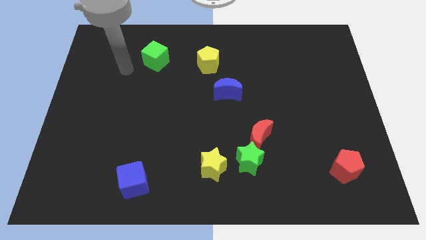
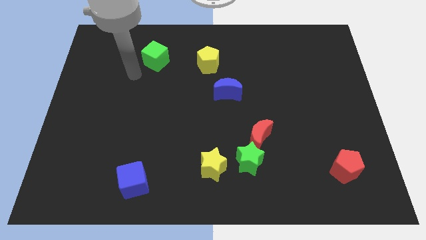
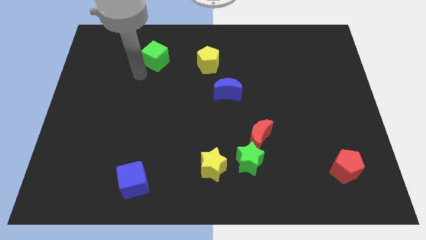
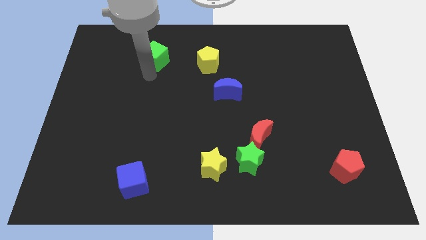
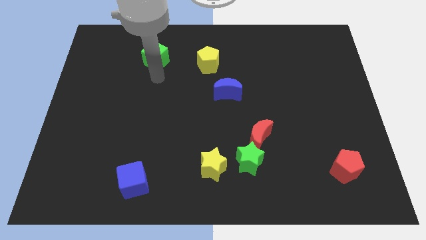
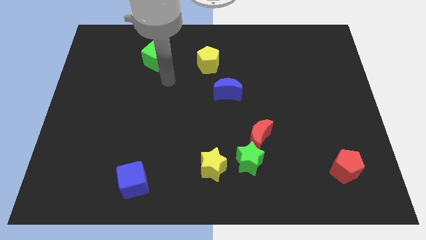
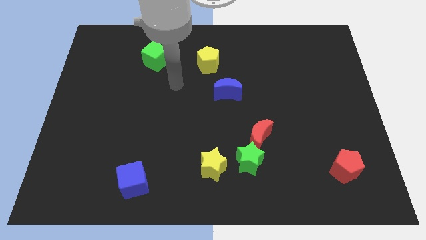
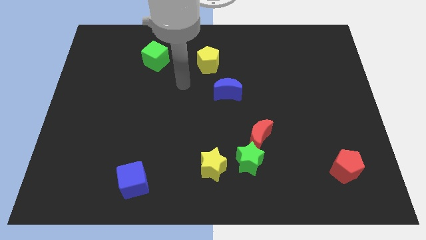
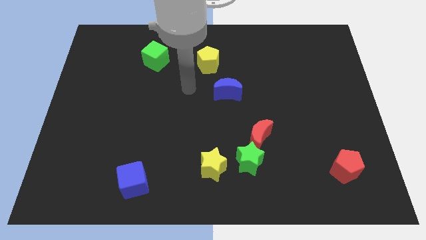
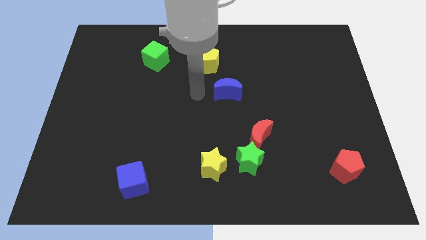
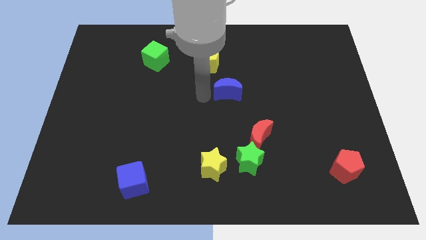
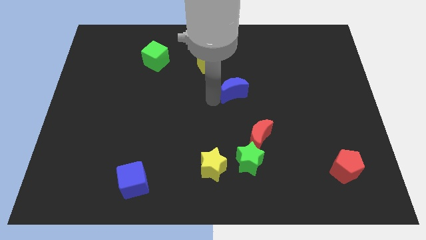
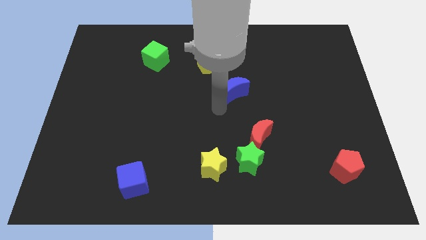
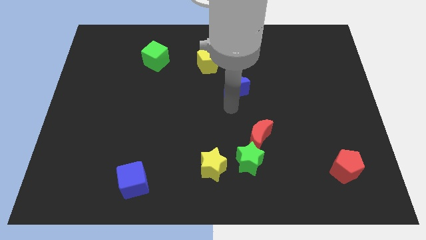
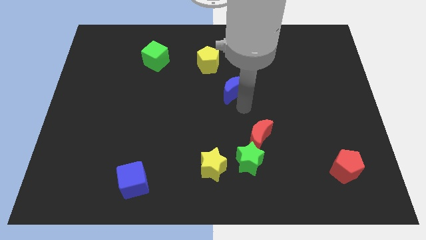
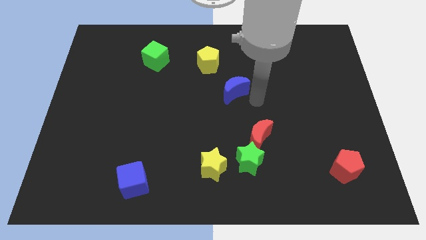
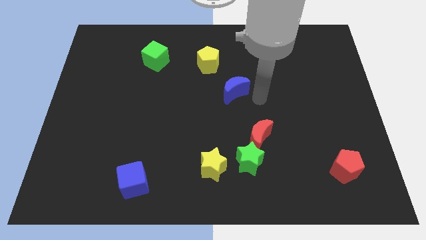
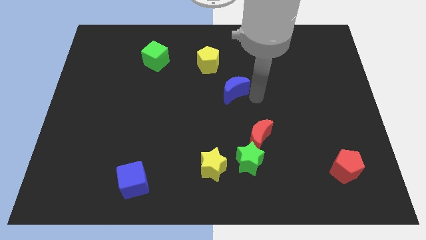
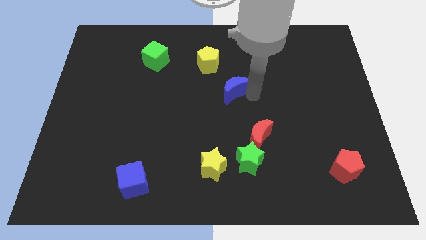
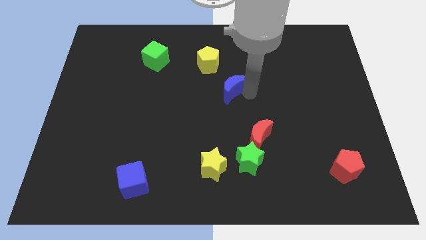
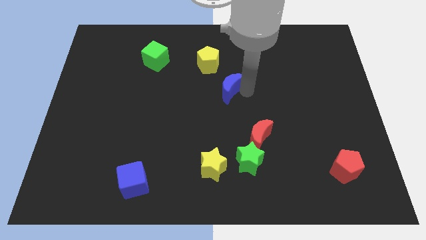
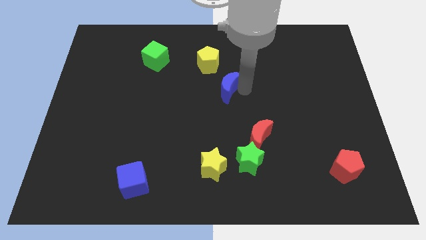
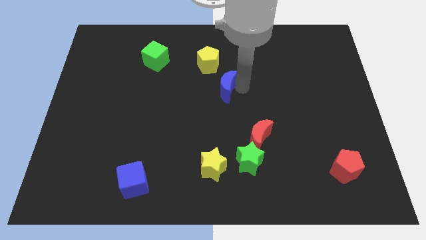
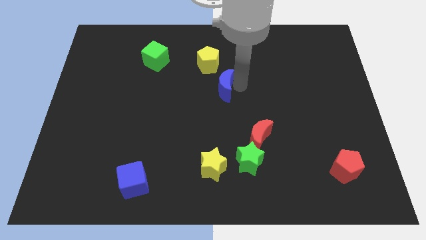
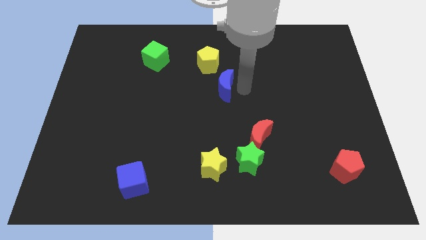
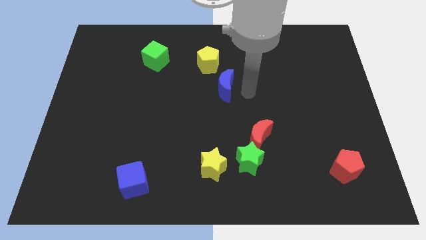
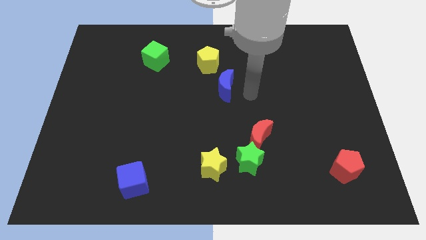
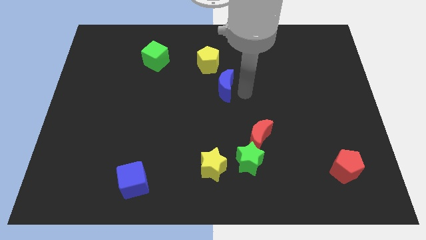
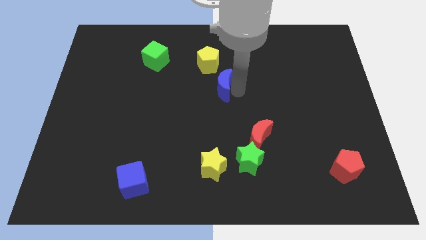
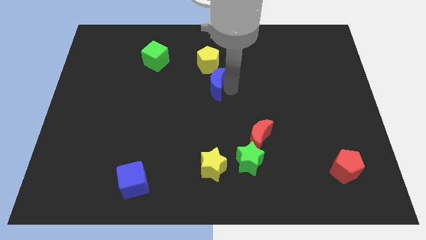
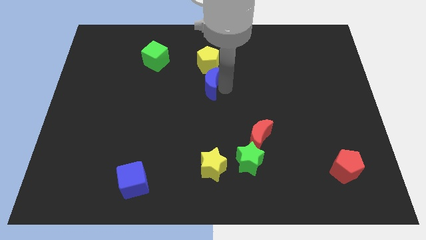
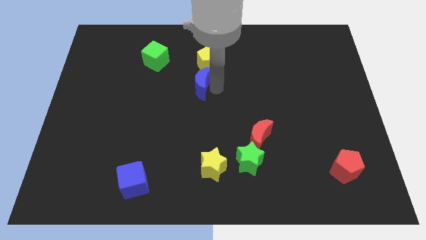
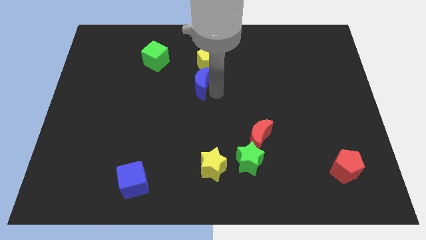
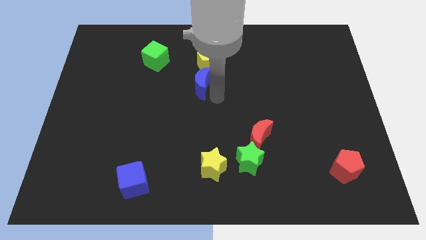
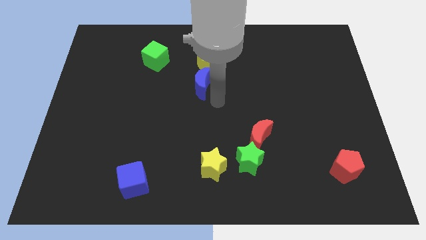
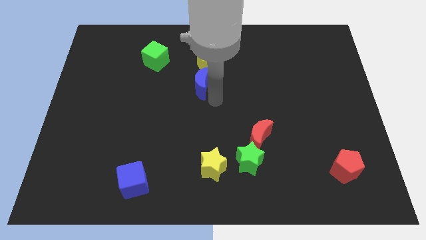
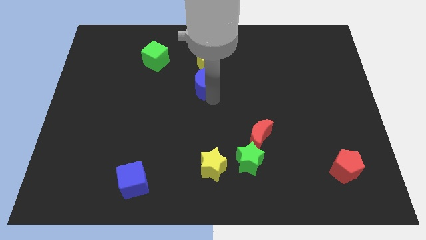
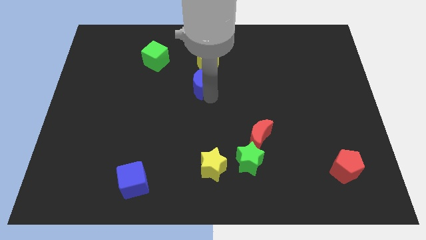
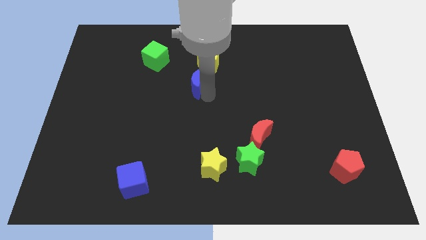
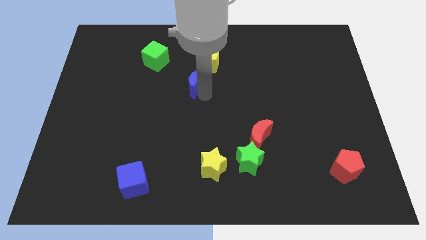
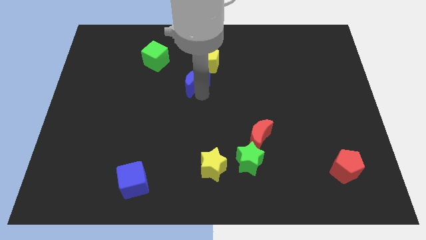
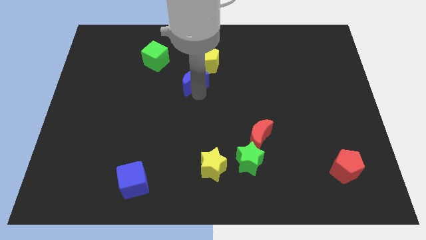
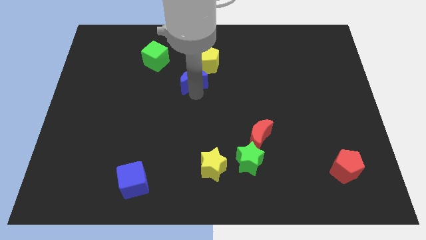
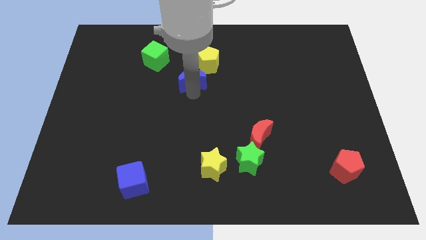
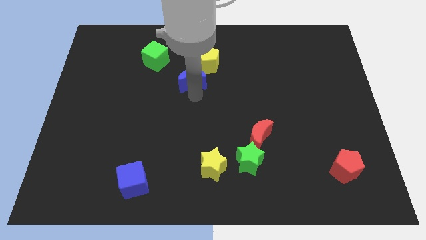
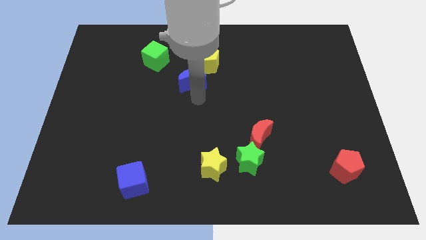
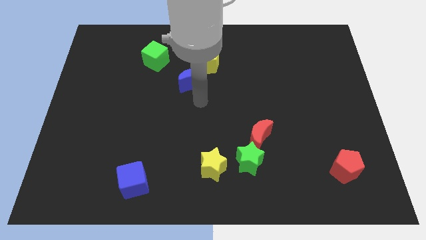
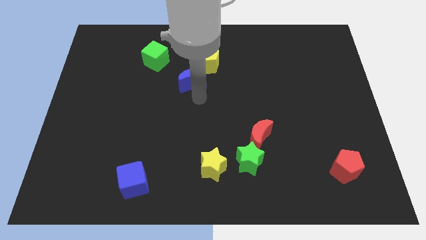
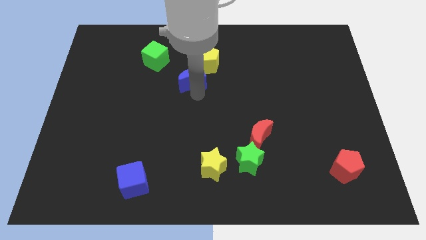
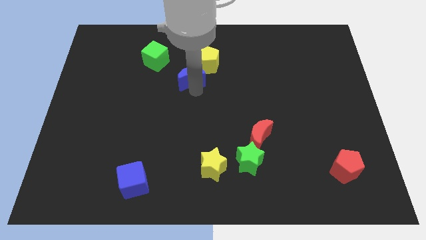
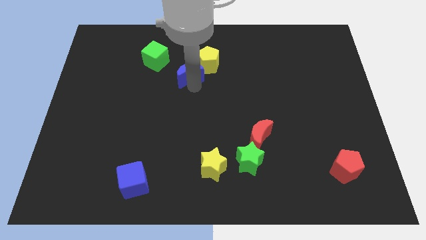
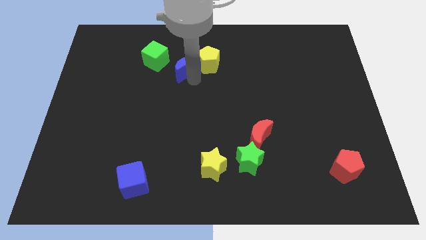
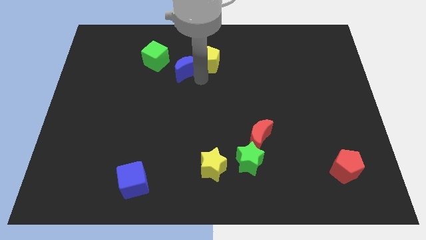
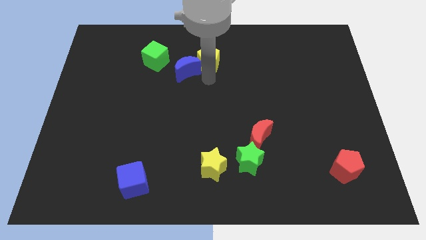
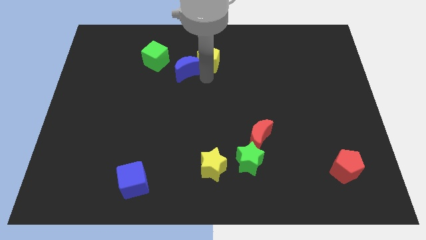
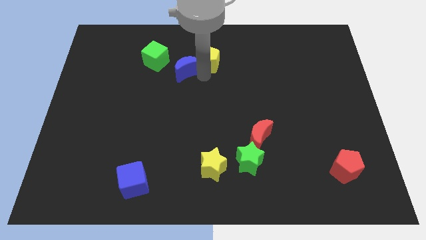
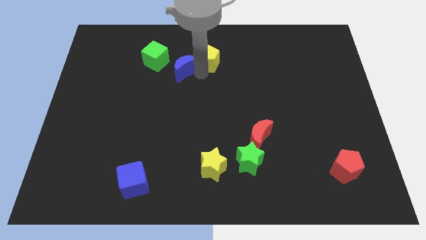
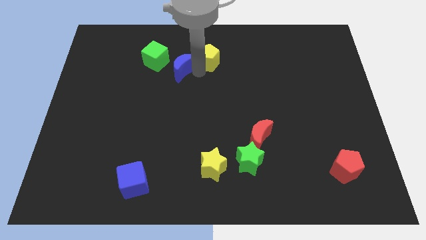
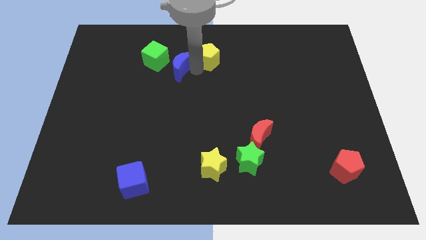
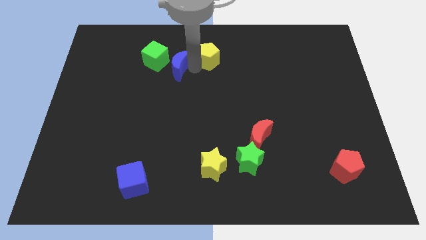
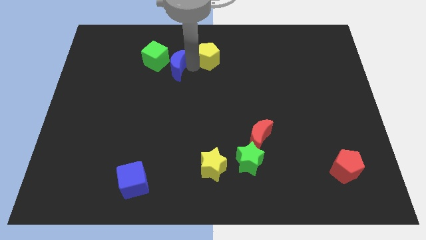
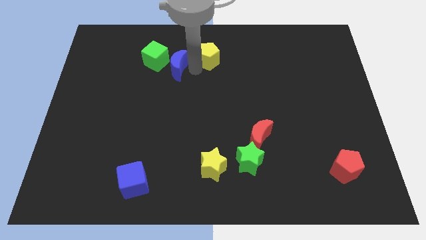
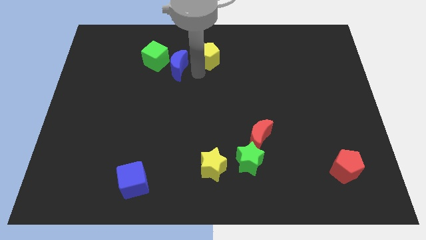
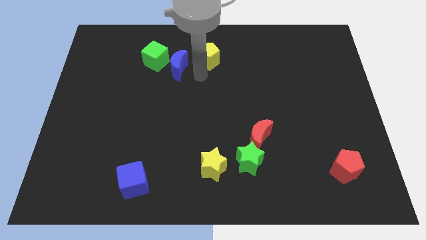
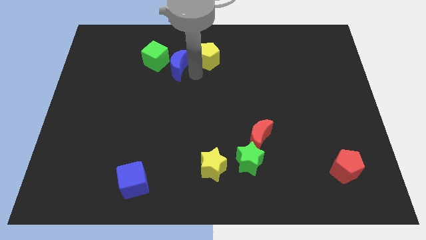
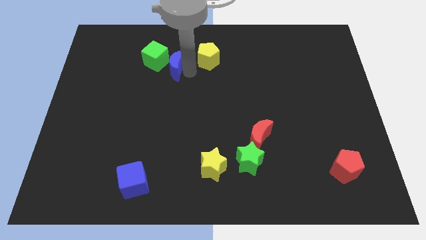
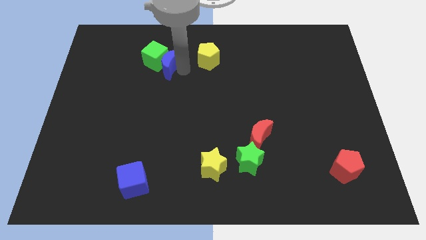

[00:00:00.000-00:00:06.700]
move the blue moon next to the green cube

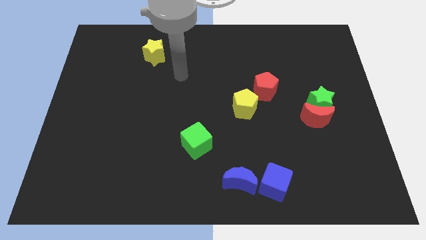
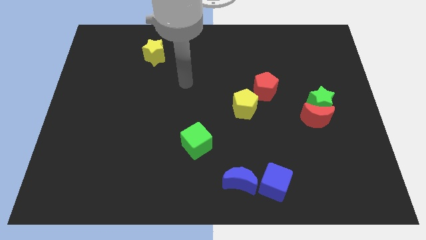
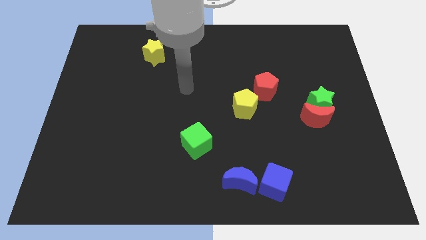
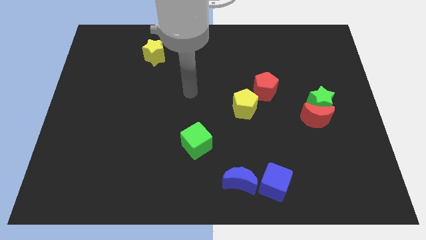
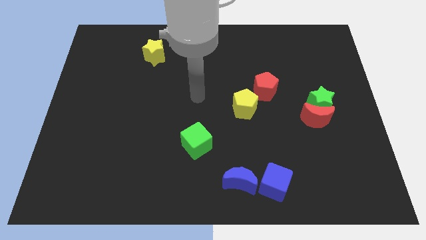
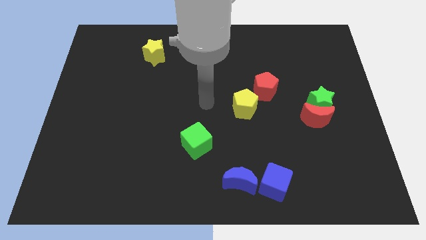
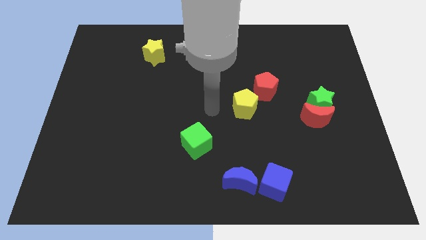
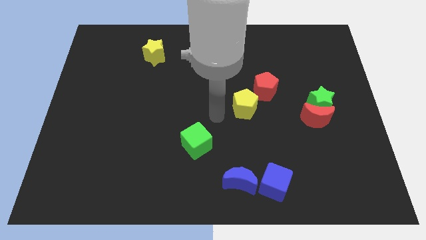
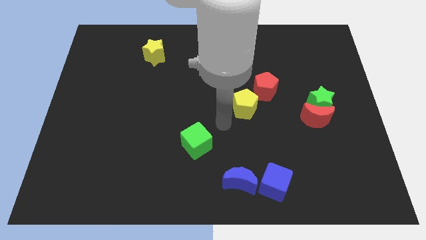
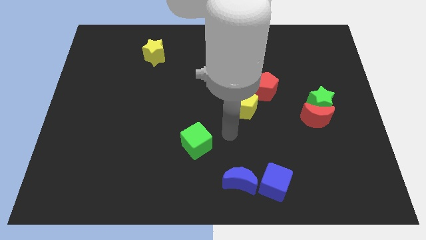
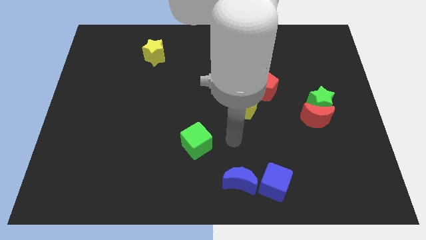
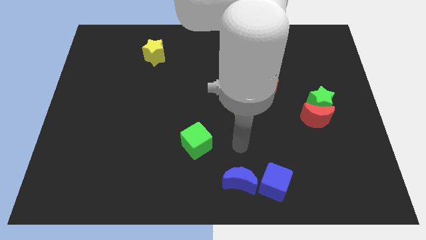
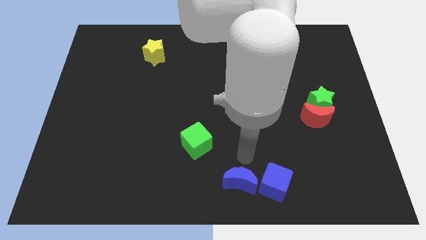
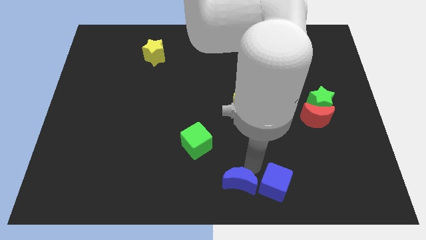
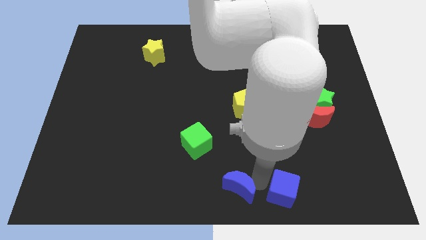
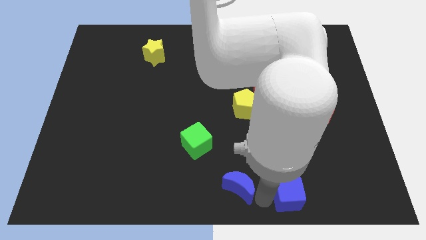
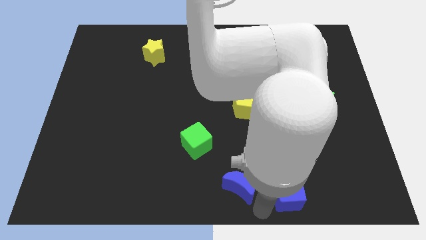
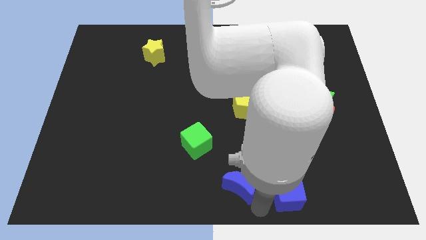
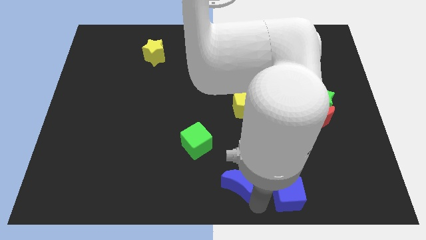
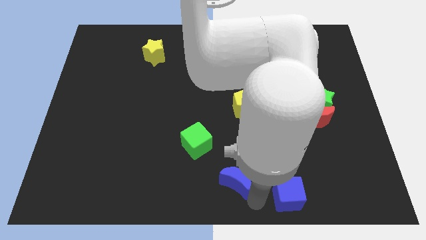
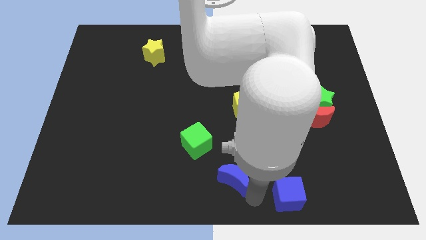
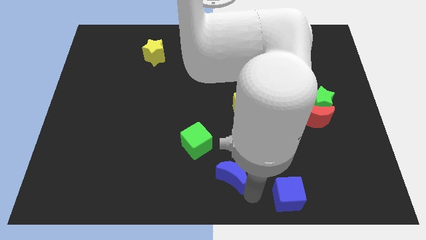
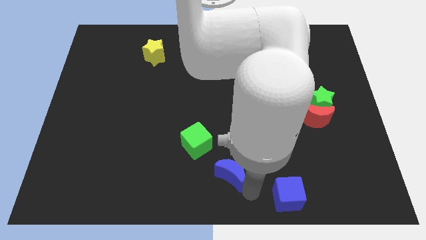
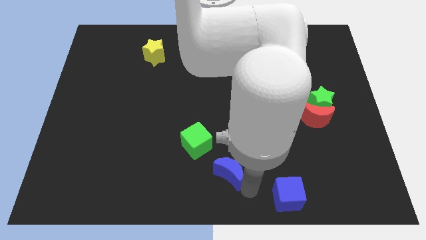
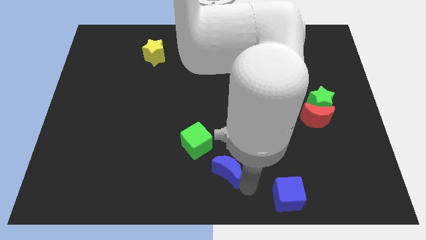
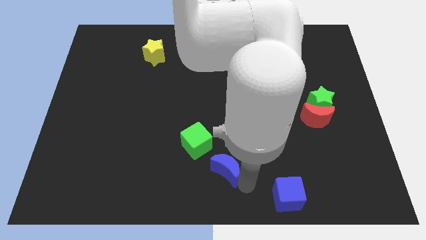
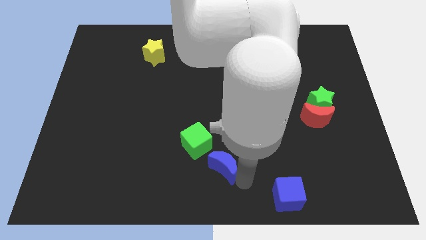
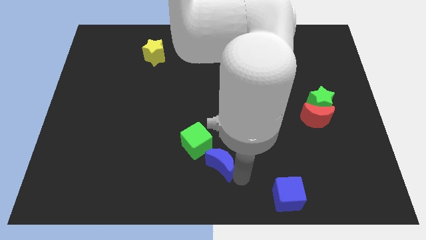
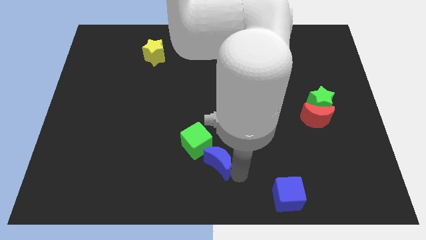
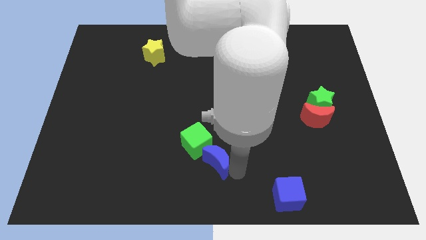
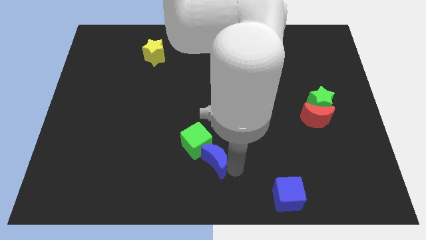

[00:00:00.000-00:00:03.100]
put the blue moon towards the green cube
